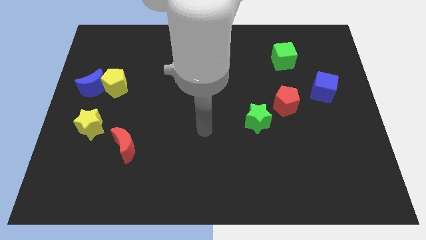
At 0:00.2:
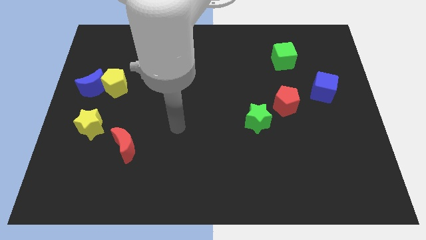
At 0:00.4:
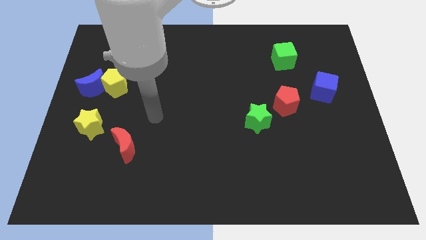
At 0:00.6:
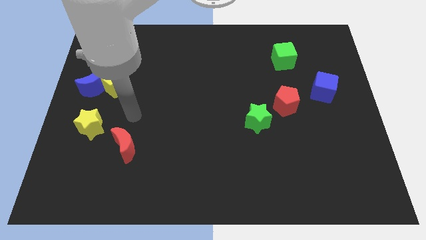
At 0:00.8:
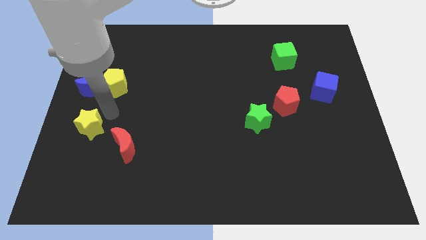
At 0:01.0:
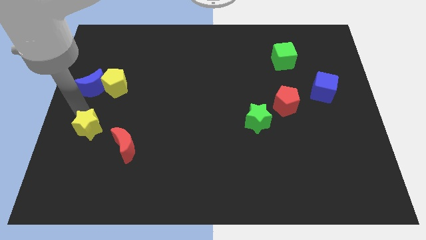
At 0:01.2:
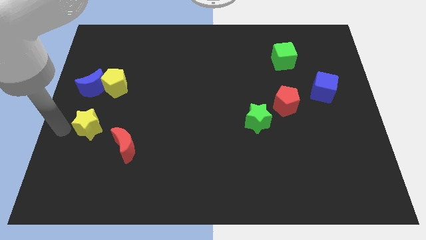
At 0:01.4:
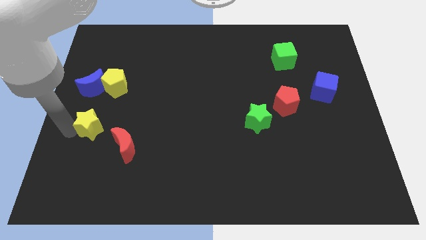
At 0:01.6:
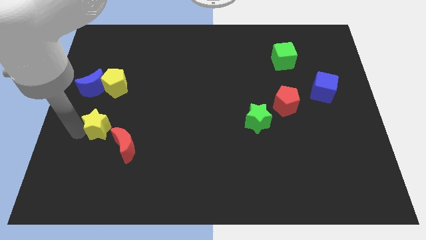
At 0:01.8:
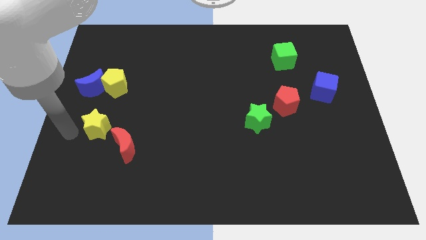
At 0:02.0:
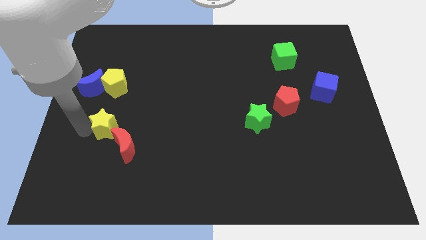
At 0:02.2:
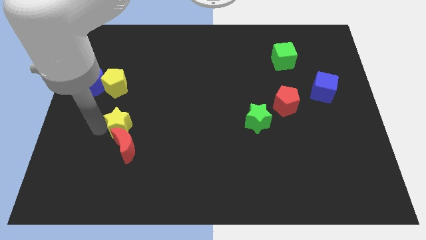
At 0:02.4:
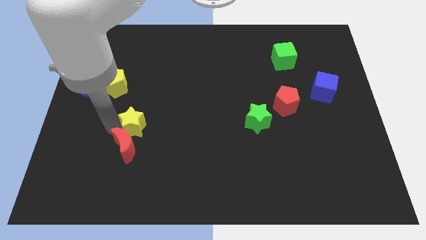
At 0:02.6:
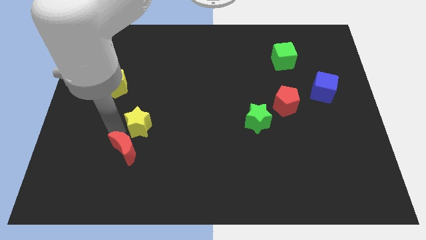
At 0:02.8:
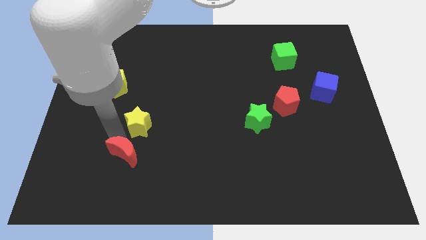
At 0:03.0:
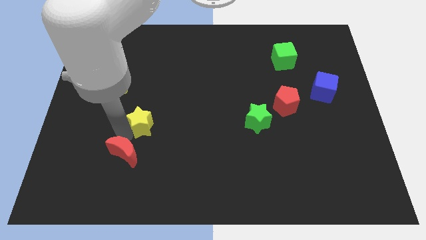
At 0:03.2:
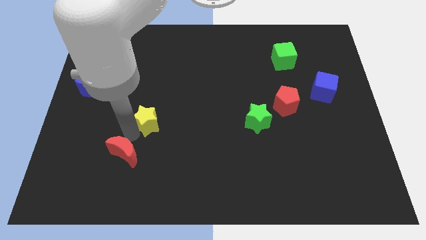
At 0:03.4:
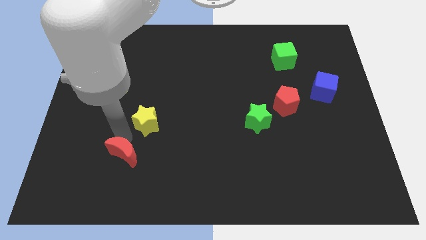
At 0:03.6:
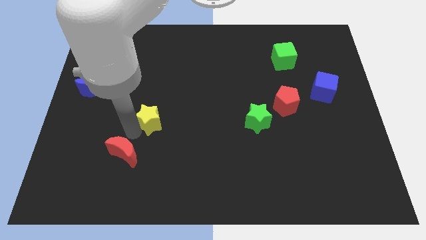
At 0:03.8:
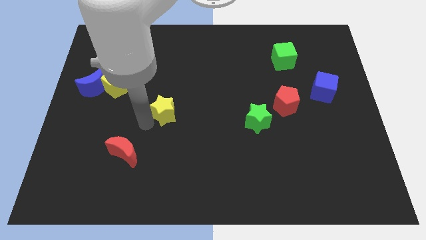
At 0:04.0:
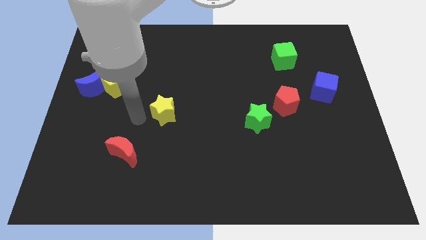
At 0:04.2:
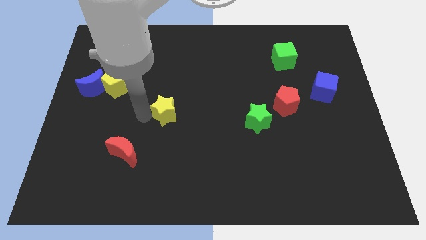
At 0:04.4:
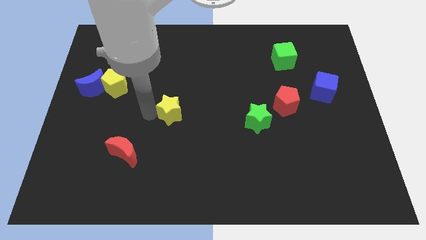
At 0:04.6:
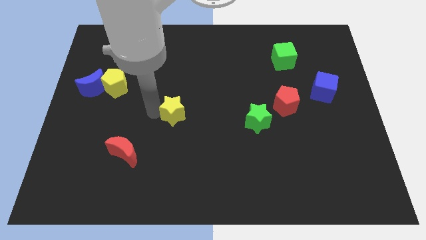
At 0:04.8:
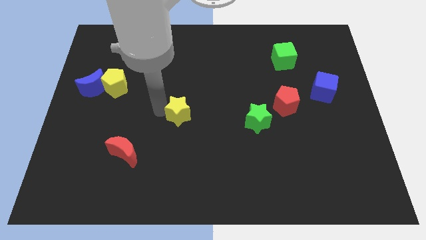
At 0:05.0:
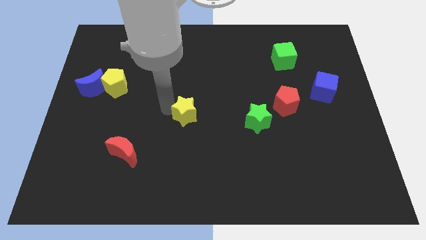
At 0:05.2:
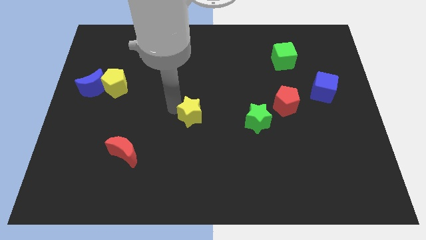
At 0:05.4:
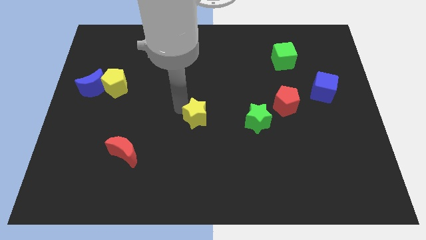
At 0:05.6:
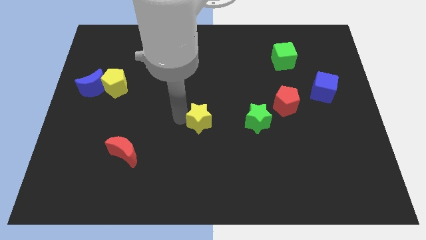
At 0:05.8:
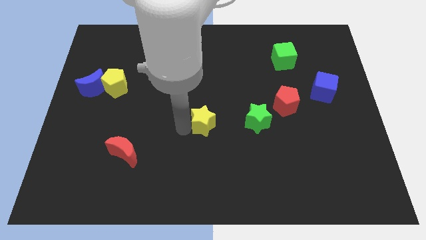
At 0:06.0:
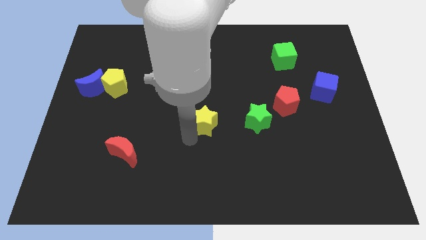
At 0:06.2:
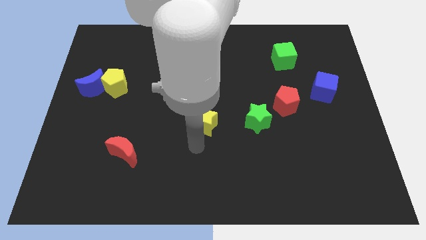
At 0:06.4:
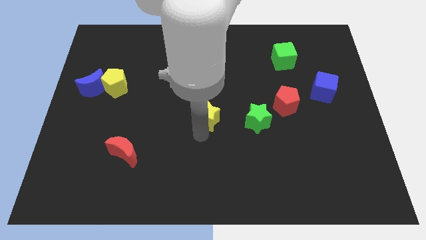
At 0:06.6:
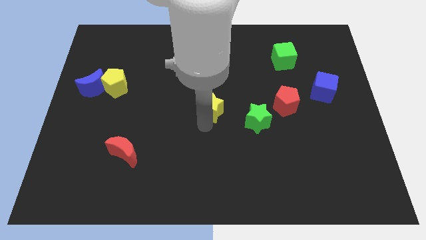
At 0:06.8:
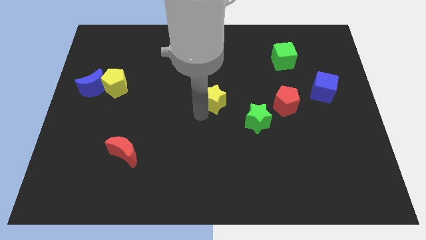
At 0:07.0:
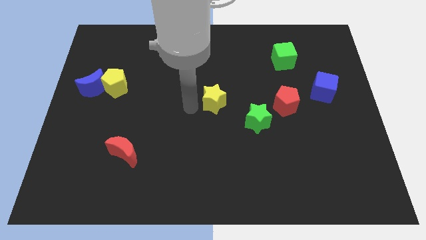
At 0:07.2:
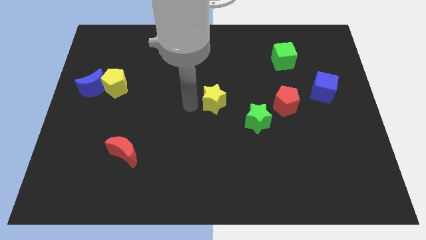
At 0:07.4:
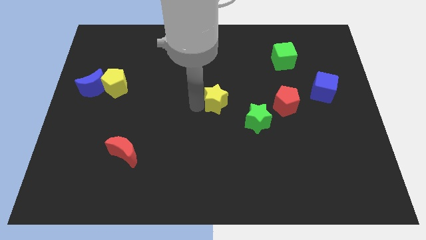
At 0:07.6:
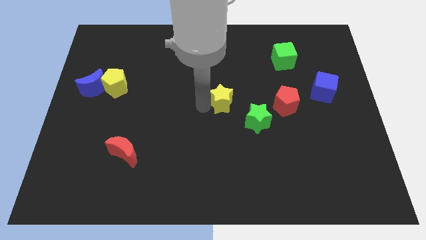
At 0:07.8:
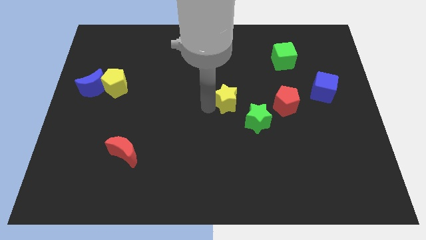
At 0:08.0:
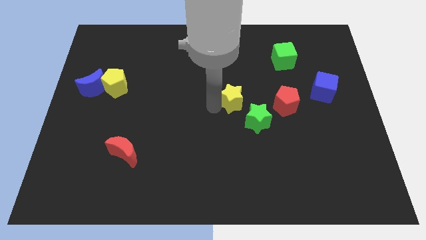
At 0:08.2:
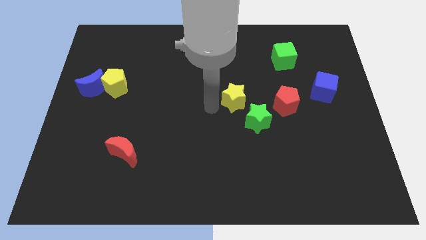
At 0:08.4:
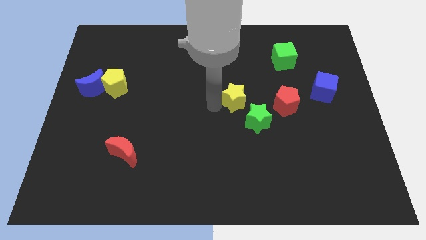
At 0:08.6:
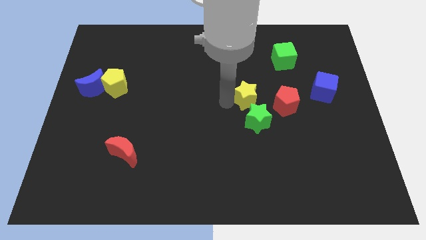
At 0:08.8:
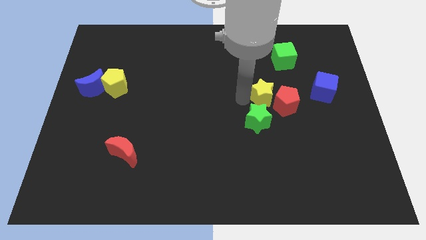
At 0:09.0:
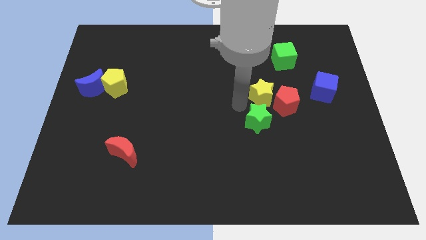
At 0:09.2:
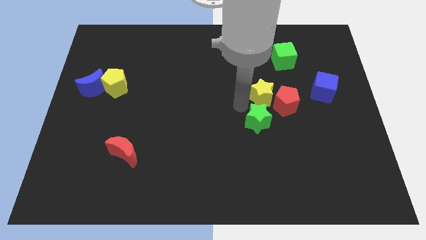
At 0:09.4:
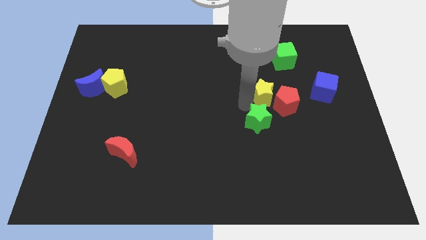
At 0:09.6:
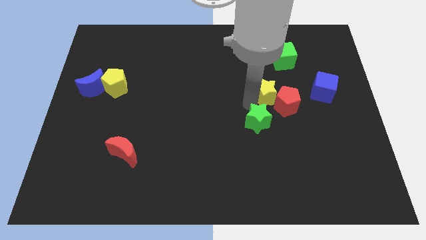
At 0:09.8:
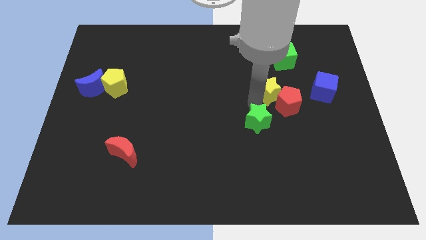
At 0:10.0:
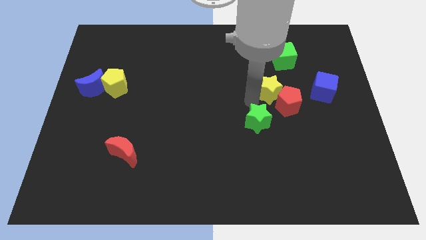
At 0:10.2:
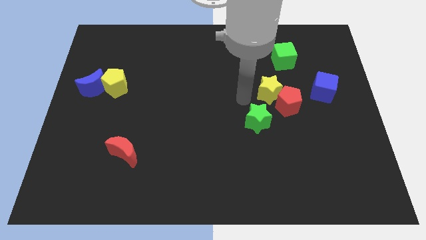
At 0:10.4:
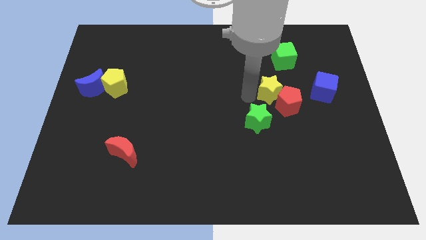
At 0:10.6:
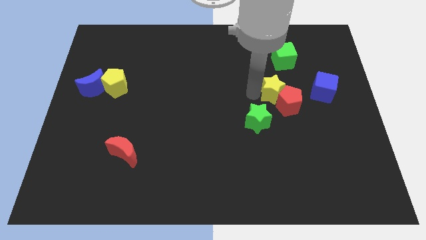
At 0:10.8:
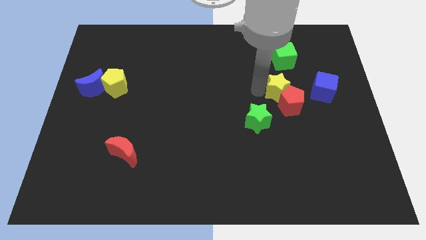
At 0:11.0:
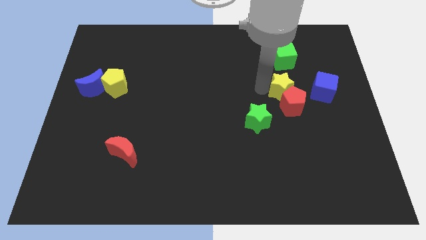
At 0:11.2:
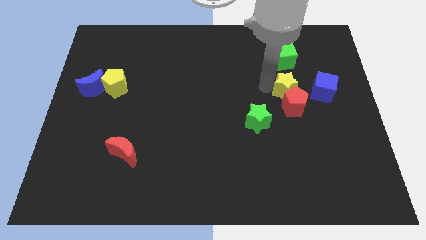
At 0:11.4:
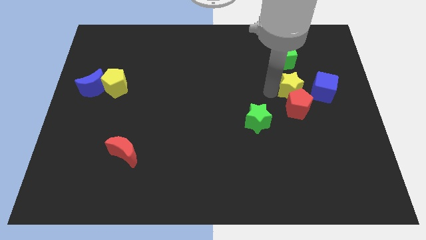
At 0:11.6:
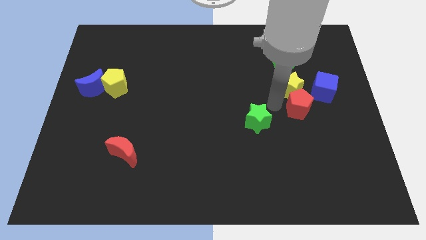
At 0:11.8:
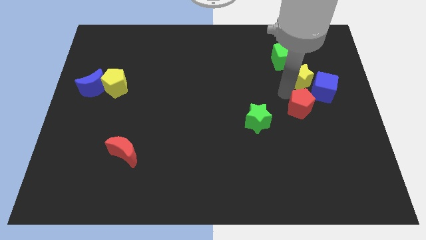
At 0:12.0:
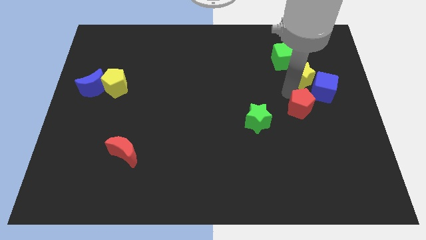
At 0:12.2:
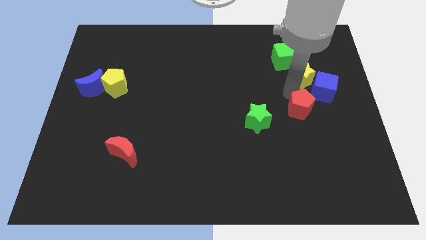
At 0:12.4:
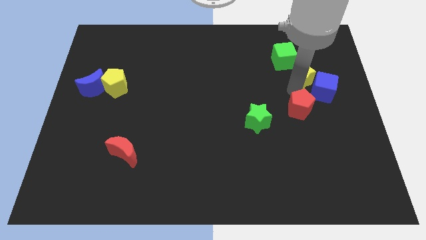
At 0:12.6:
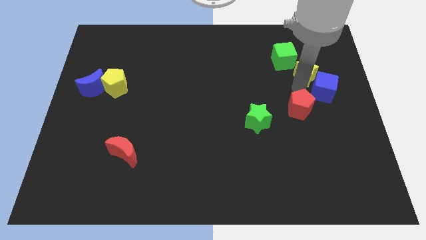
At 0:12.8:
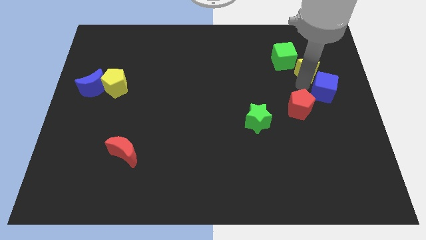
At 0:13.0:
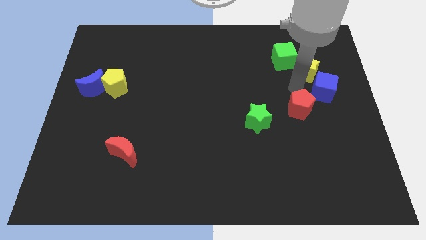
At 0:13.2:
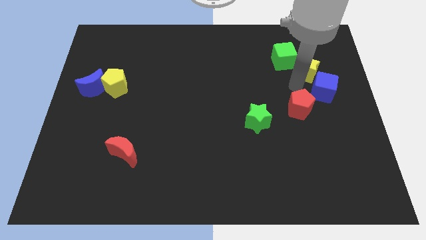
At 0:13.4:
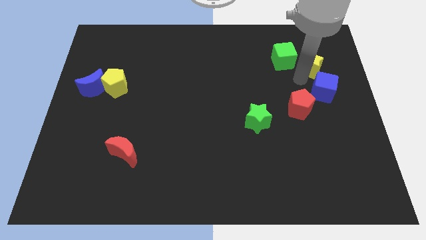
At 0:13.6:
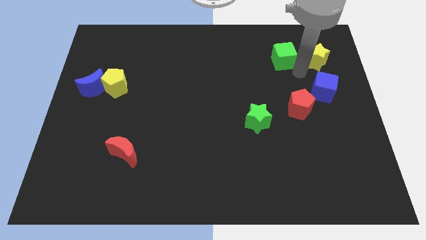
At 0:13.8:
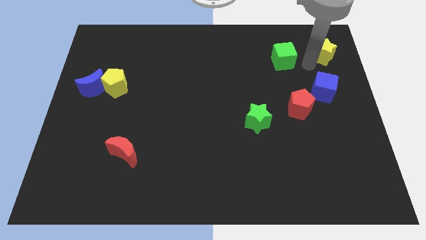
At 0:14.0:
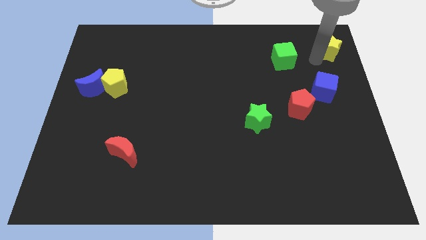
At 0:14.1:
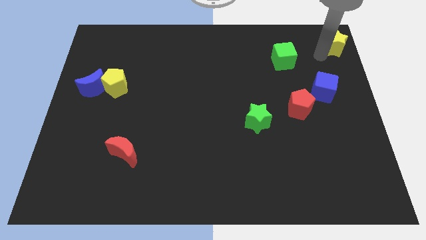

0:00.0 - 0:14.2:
push the yellow star to the top right of the board

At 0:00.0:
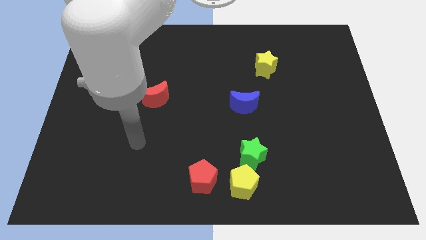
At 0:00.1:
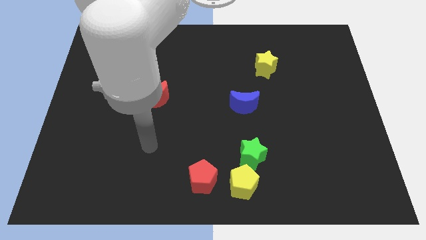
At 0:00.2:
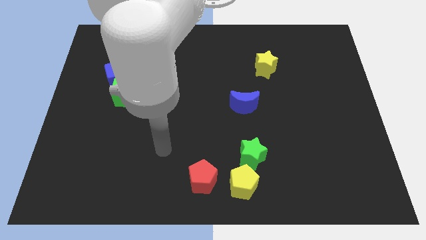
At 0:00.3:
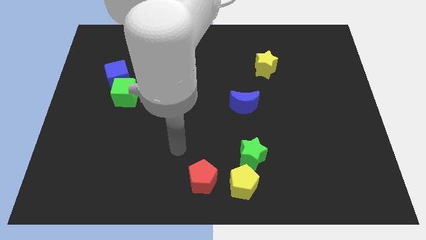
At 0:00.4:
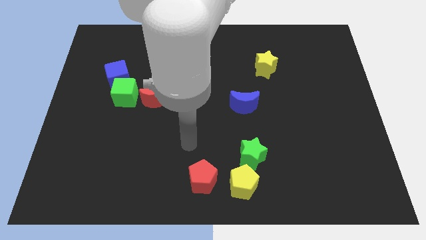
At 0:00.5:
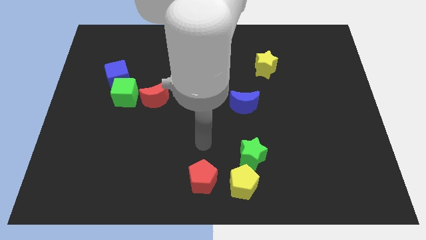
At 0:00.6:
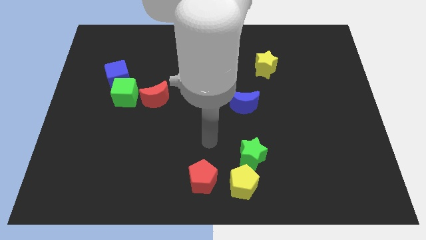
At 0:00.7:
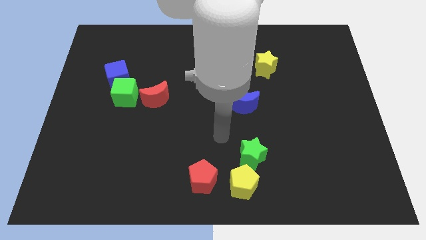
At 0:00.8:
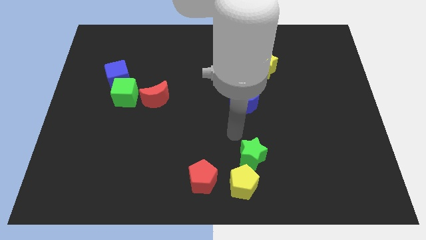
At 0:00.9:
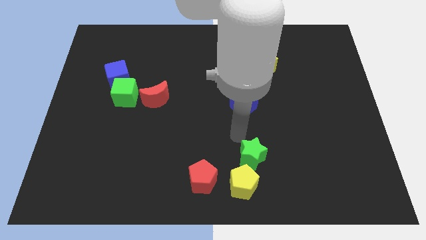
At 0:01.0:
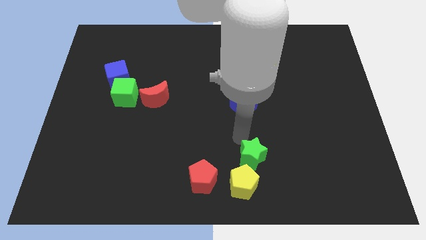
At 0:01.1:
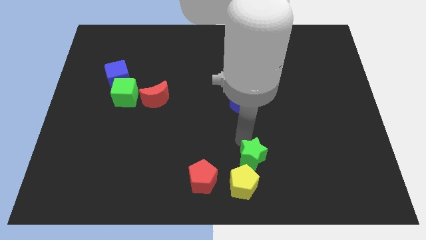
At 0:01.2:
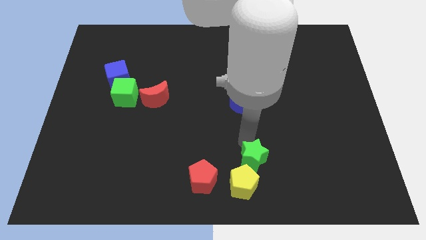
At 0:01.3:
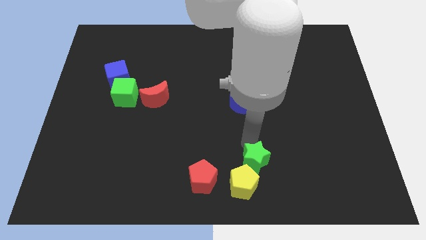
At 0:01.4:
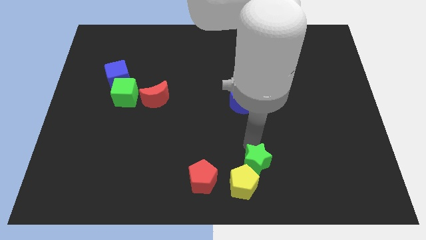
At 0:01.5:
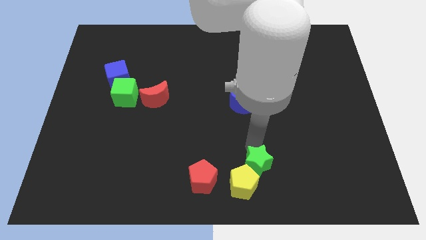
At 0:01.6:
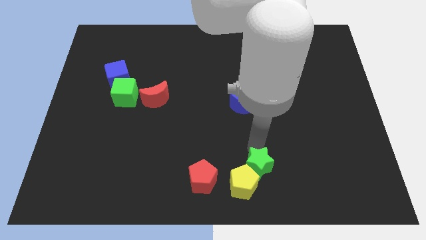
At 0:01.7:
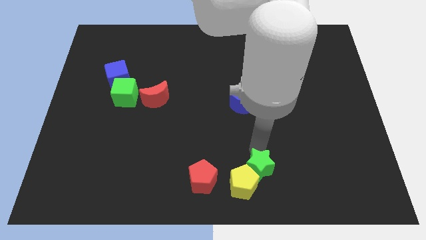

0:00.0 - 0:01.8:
move the green star to the bottom side
